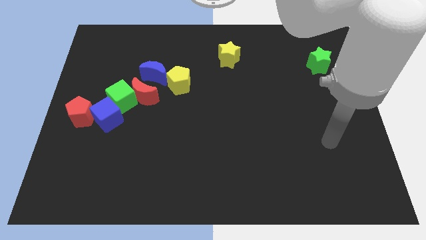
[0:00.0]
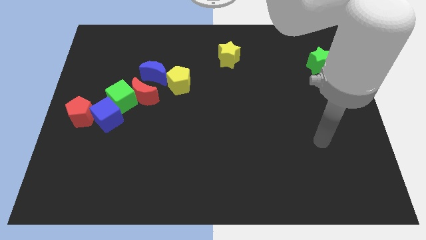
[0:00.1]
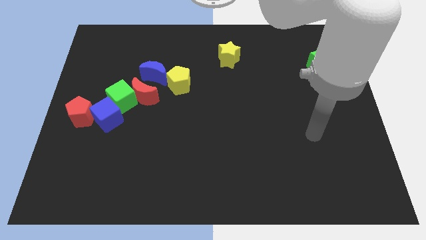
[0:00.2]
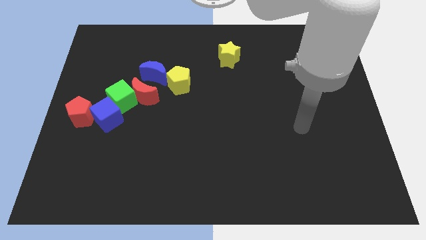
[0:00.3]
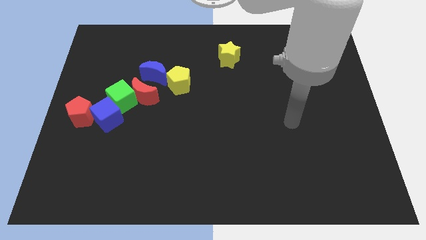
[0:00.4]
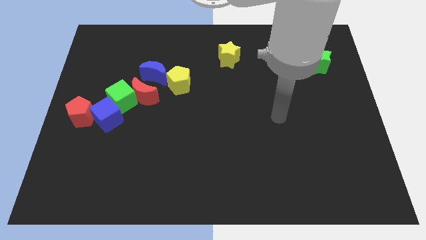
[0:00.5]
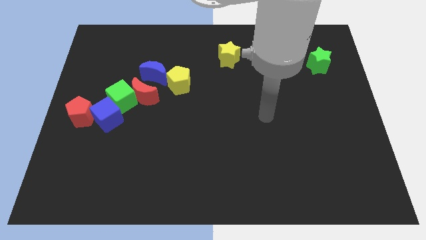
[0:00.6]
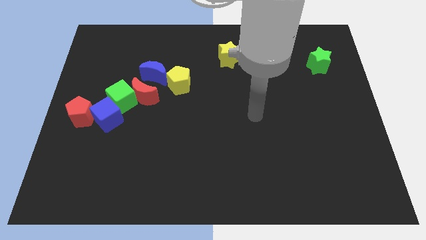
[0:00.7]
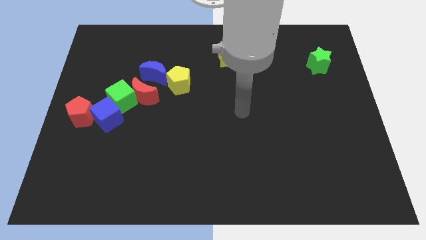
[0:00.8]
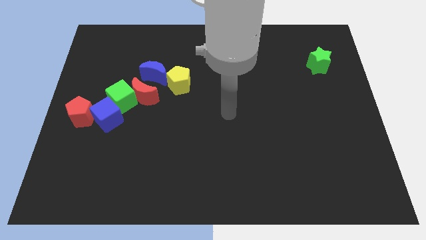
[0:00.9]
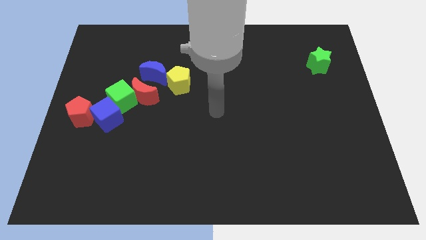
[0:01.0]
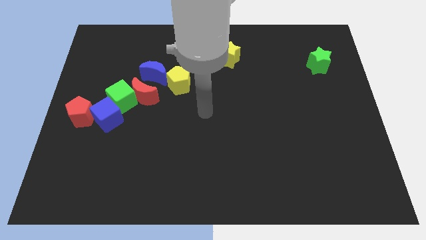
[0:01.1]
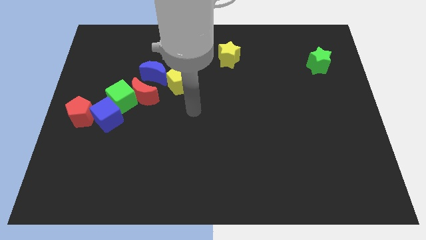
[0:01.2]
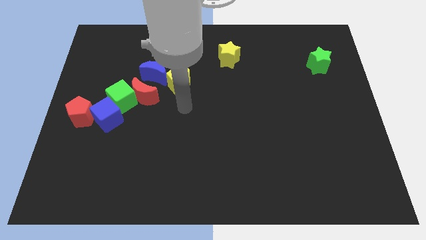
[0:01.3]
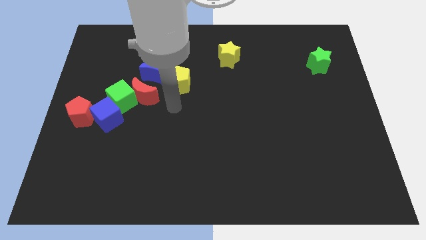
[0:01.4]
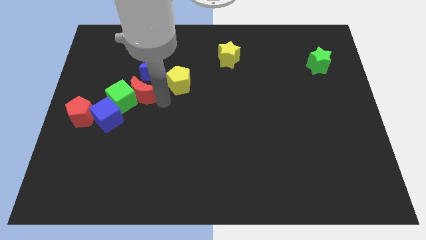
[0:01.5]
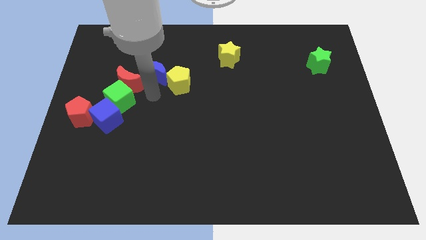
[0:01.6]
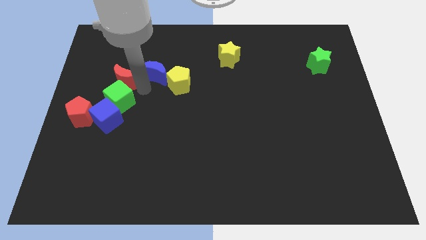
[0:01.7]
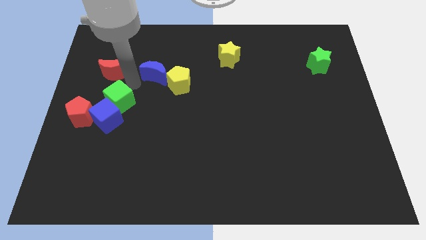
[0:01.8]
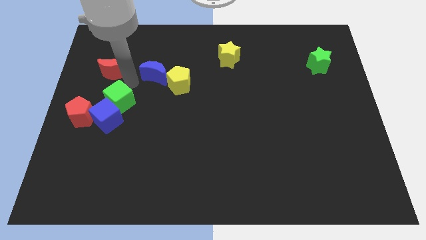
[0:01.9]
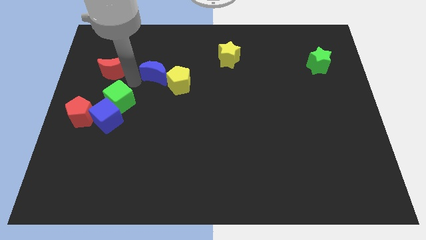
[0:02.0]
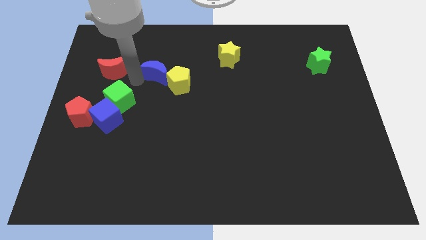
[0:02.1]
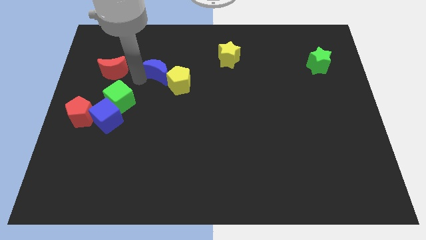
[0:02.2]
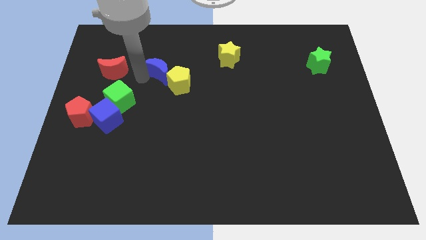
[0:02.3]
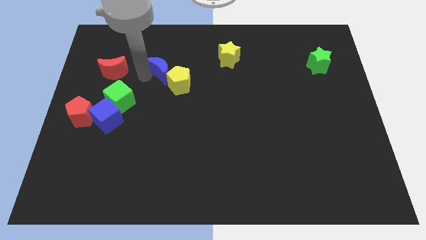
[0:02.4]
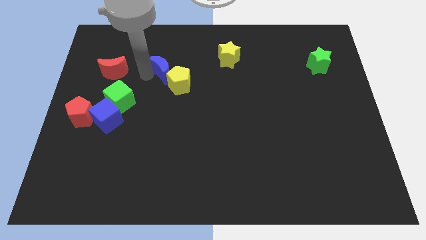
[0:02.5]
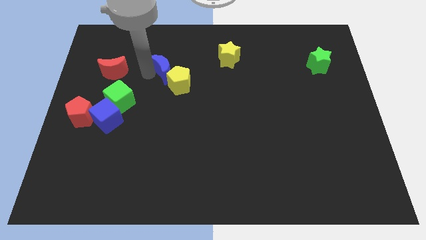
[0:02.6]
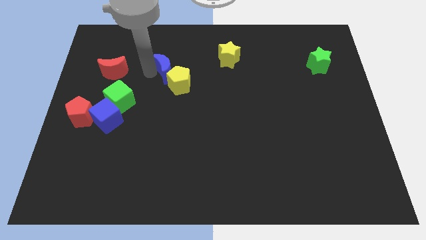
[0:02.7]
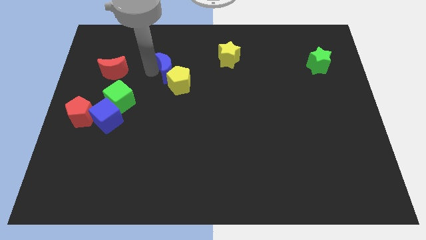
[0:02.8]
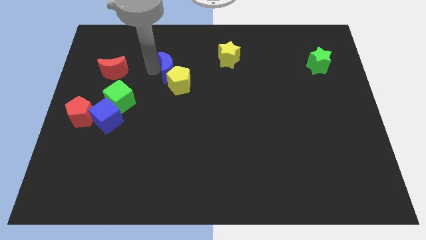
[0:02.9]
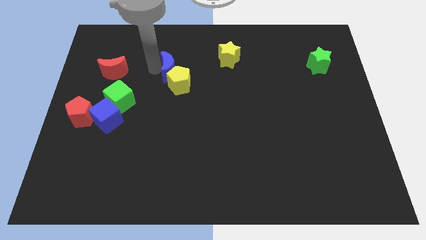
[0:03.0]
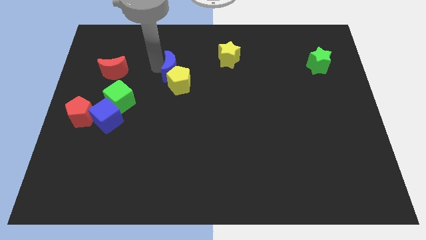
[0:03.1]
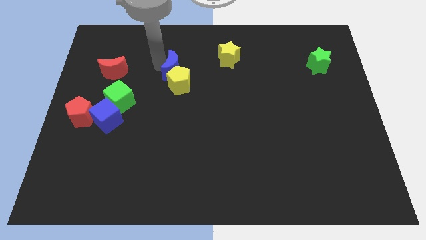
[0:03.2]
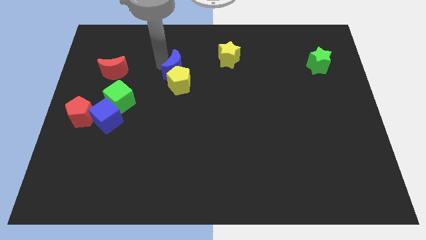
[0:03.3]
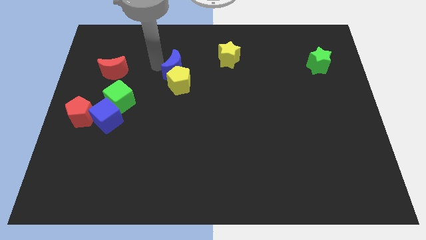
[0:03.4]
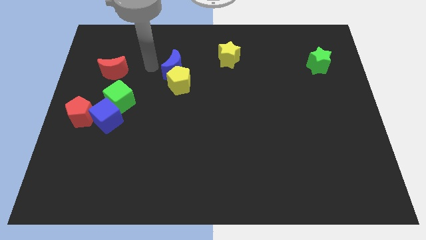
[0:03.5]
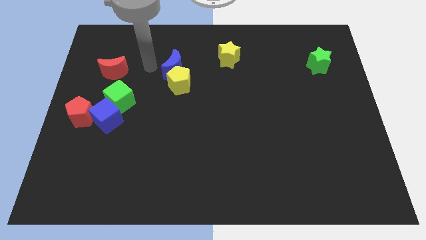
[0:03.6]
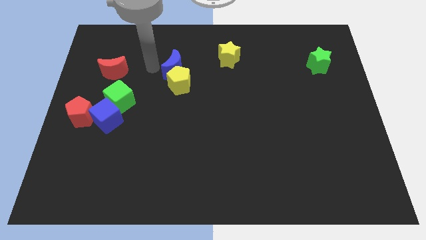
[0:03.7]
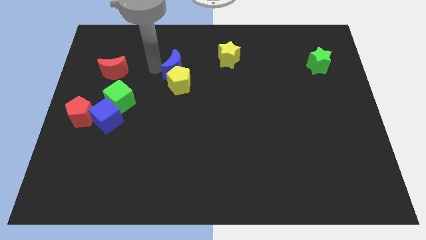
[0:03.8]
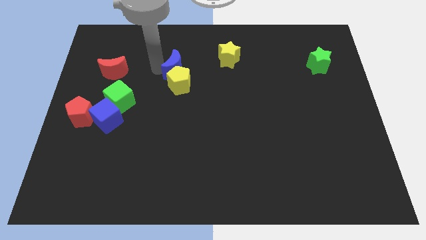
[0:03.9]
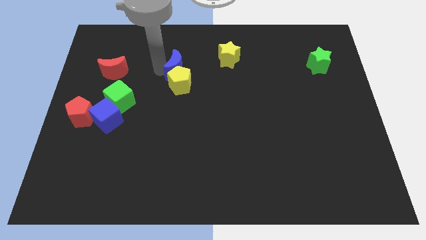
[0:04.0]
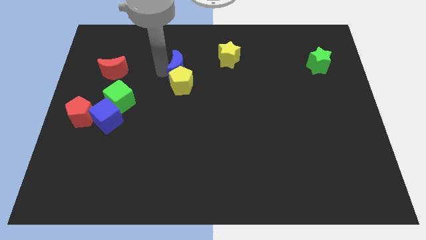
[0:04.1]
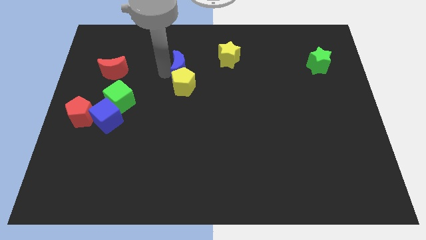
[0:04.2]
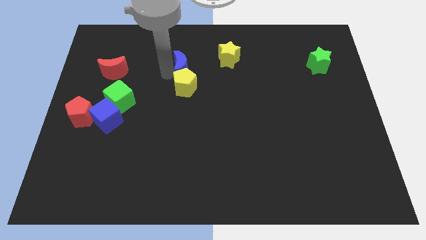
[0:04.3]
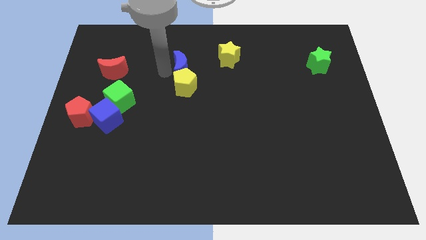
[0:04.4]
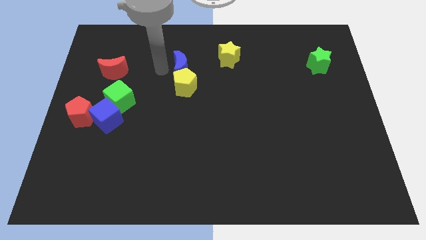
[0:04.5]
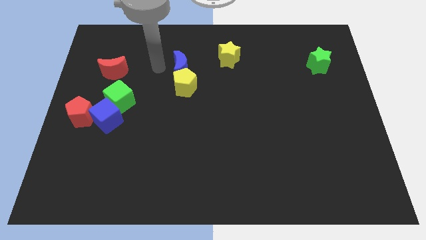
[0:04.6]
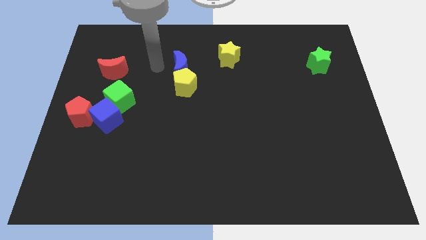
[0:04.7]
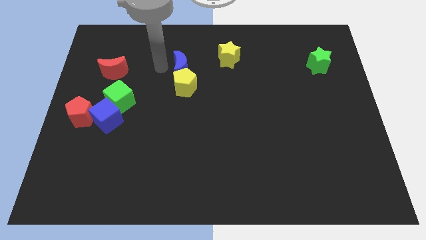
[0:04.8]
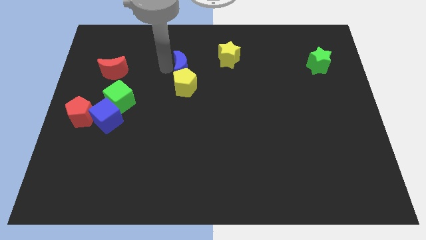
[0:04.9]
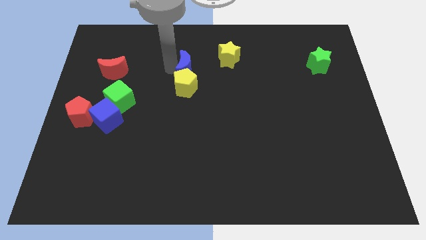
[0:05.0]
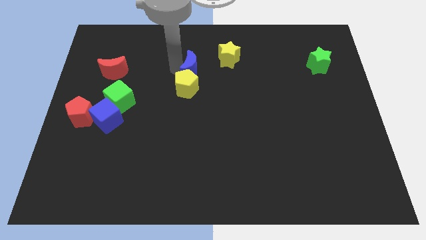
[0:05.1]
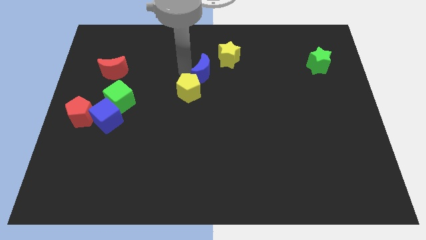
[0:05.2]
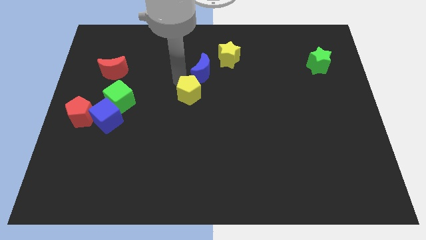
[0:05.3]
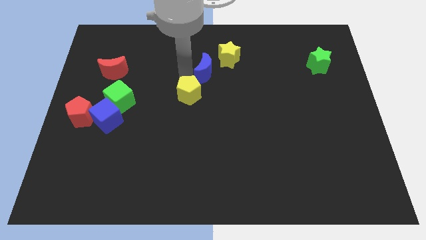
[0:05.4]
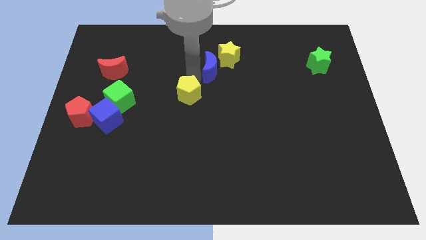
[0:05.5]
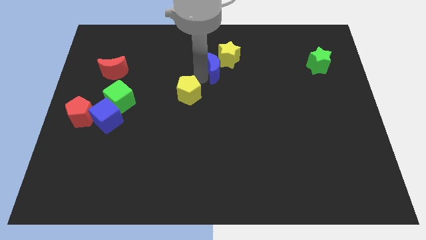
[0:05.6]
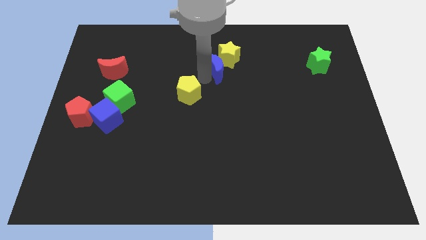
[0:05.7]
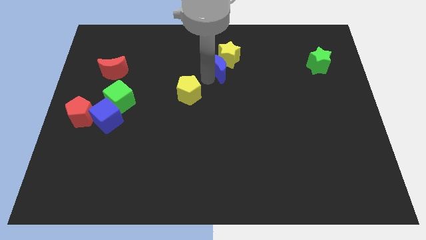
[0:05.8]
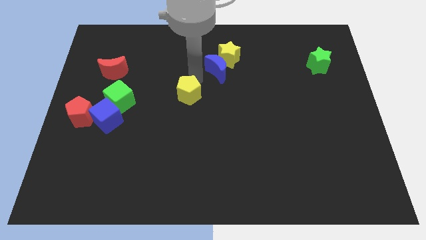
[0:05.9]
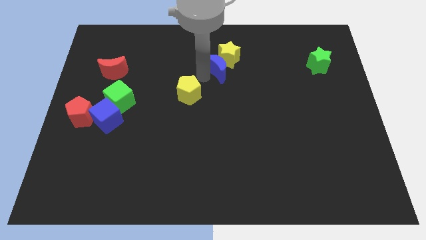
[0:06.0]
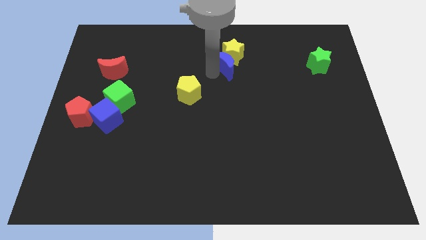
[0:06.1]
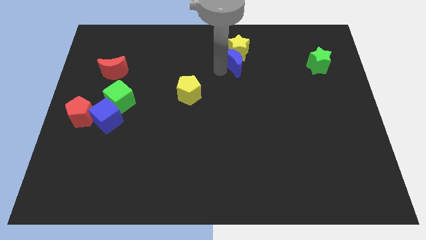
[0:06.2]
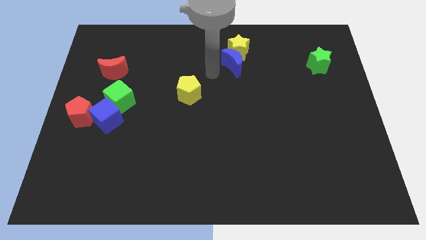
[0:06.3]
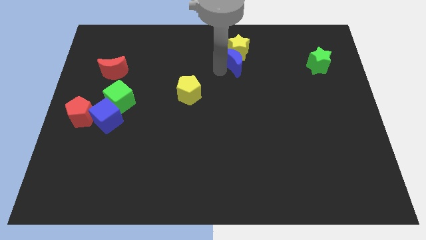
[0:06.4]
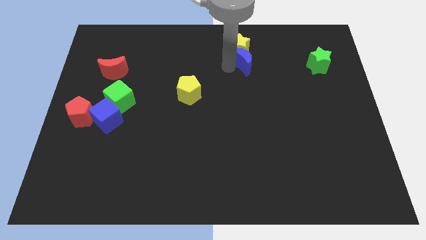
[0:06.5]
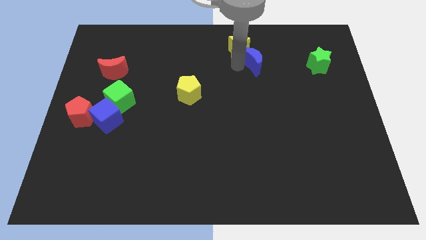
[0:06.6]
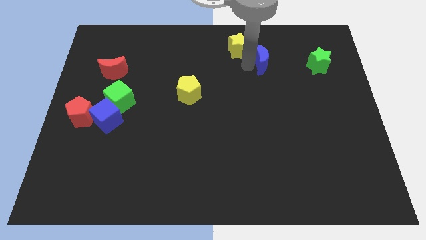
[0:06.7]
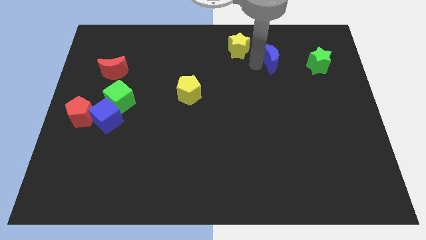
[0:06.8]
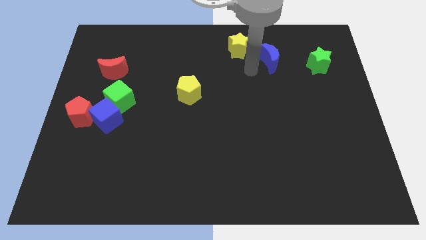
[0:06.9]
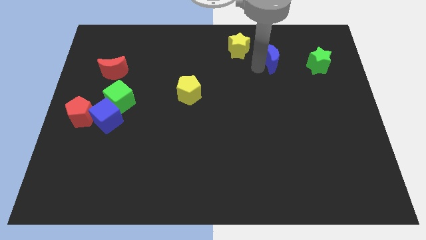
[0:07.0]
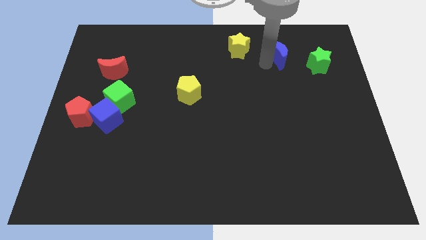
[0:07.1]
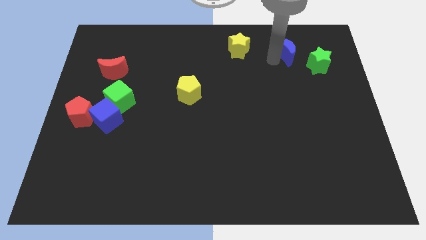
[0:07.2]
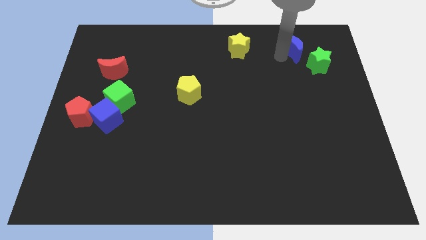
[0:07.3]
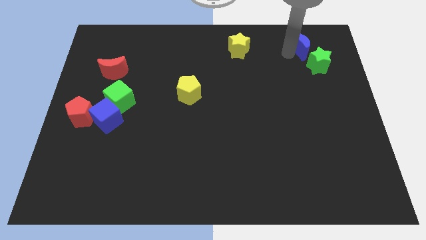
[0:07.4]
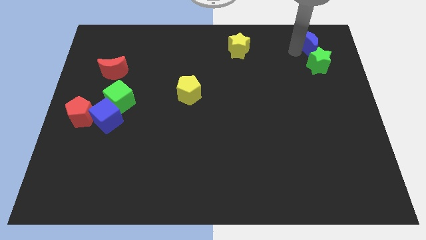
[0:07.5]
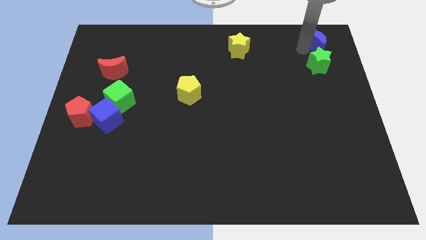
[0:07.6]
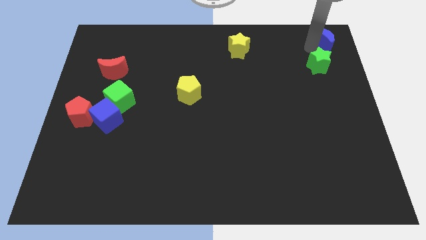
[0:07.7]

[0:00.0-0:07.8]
slide the blue moon to the top right of the board
